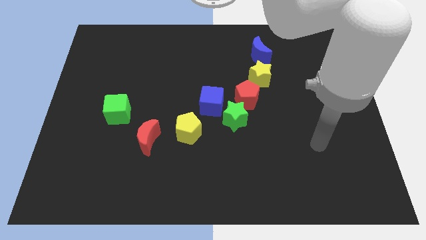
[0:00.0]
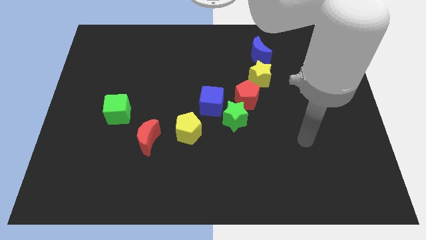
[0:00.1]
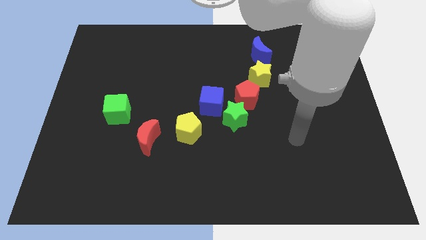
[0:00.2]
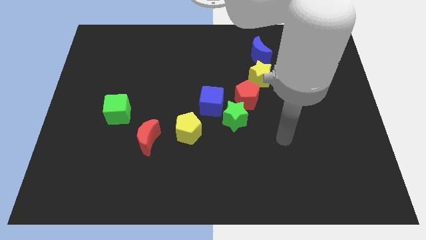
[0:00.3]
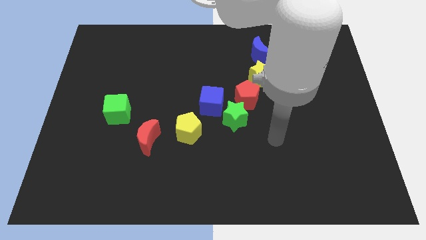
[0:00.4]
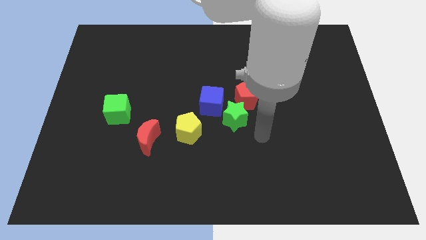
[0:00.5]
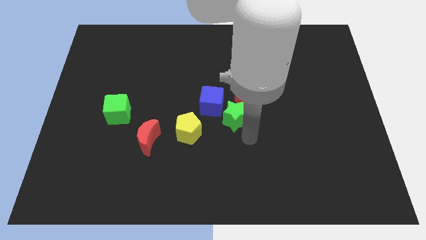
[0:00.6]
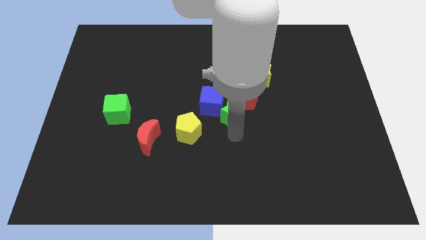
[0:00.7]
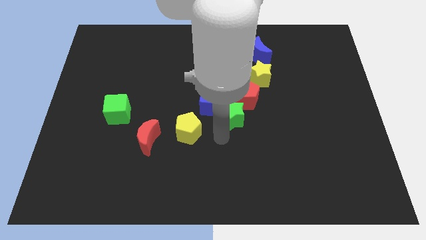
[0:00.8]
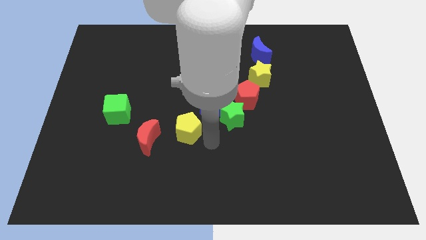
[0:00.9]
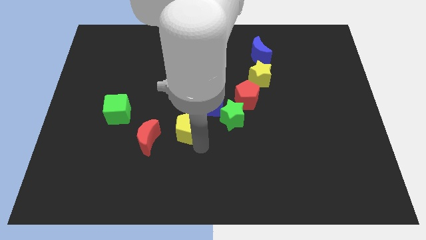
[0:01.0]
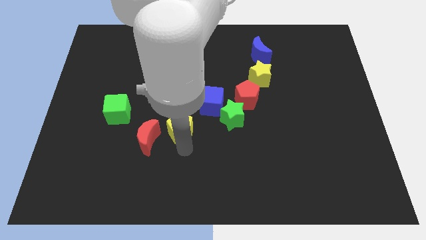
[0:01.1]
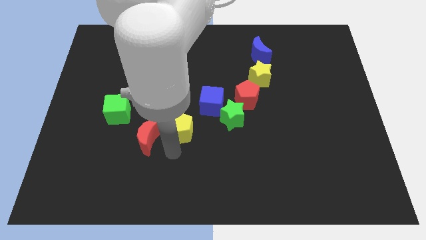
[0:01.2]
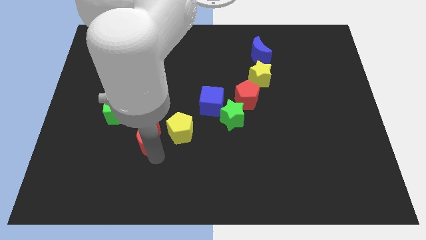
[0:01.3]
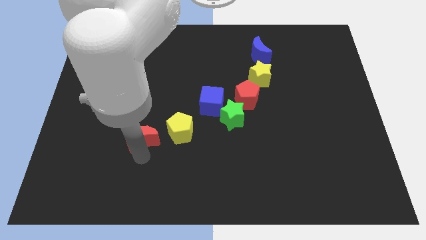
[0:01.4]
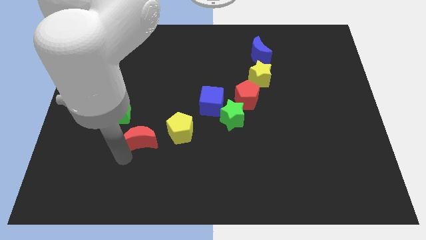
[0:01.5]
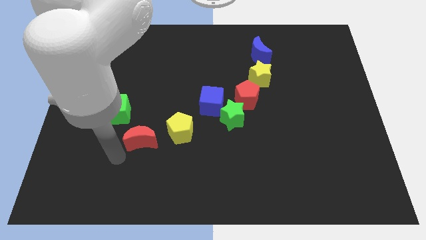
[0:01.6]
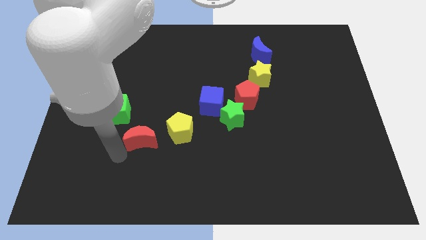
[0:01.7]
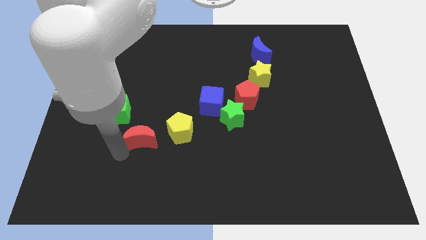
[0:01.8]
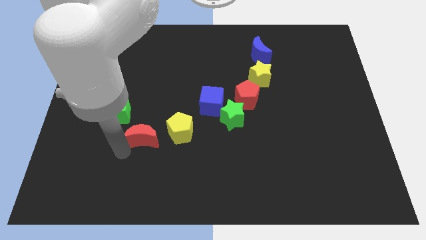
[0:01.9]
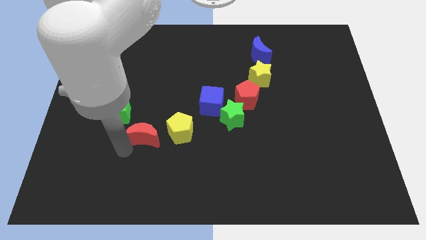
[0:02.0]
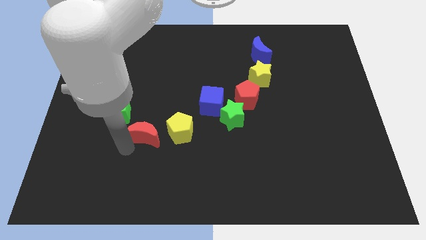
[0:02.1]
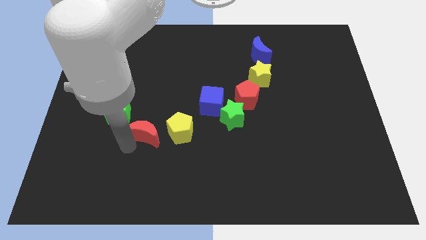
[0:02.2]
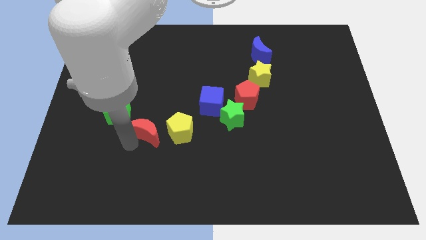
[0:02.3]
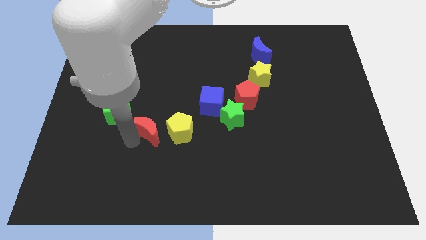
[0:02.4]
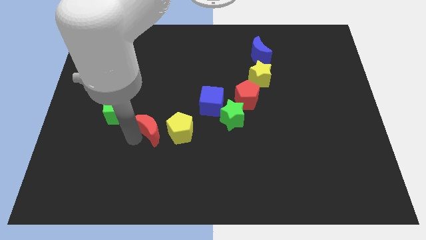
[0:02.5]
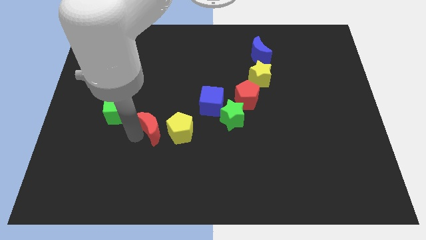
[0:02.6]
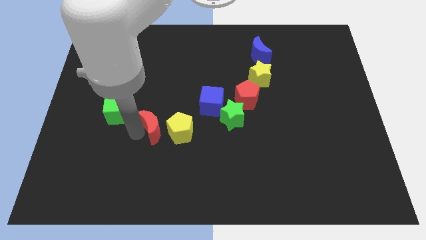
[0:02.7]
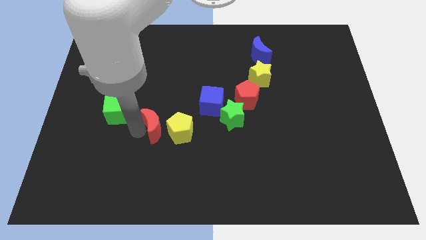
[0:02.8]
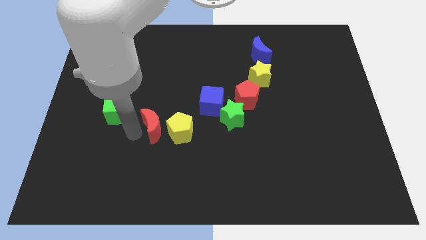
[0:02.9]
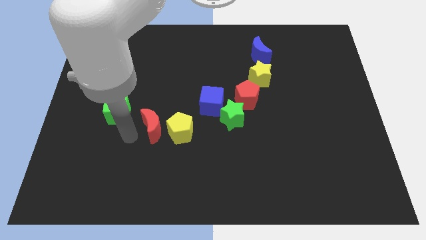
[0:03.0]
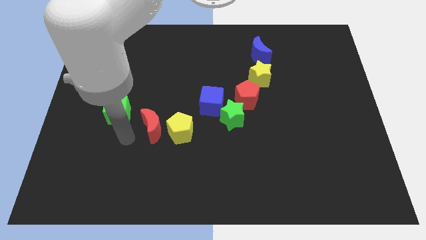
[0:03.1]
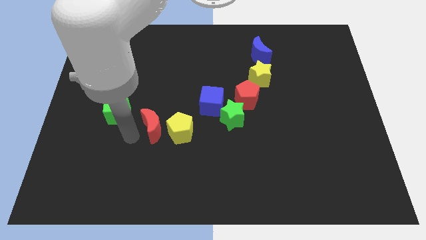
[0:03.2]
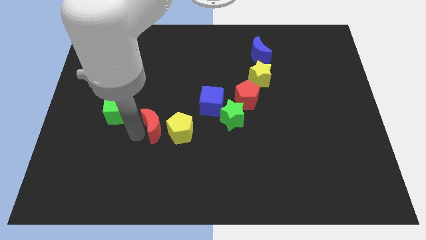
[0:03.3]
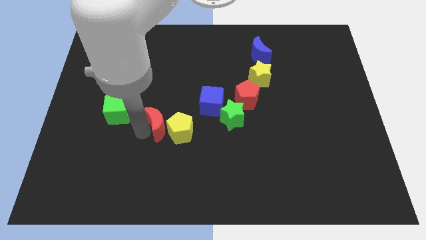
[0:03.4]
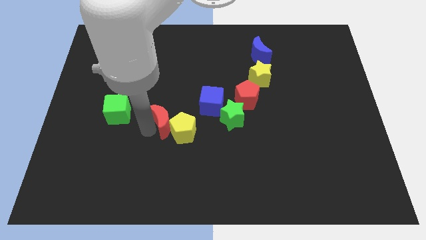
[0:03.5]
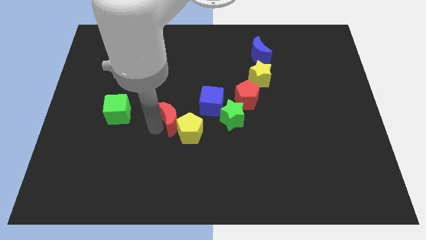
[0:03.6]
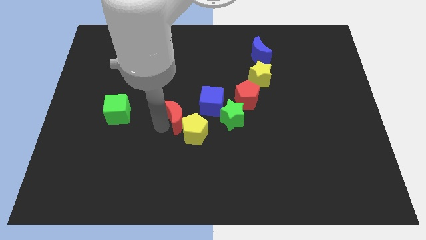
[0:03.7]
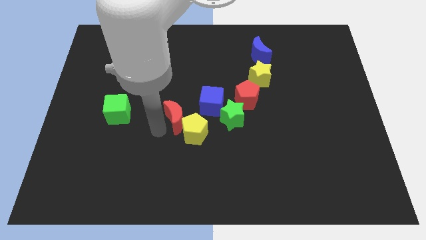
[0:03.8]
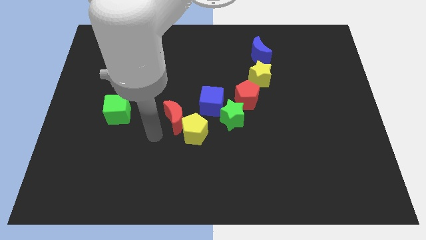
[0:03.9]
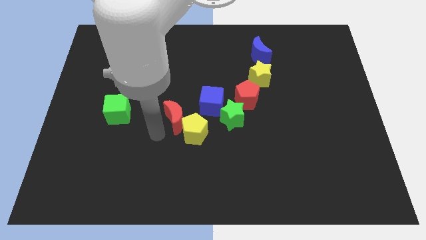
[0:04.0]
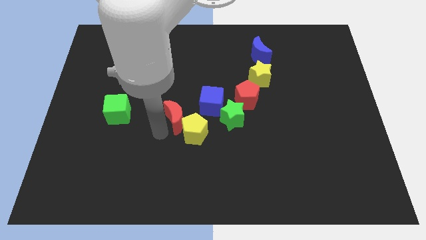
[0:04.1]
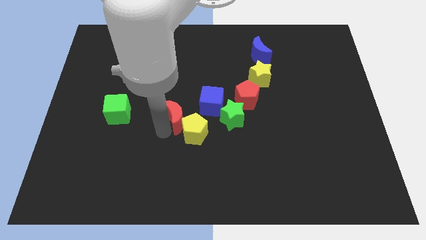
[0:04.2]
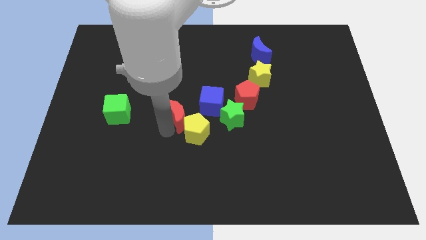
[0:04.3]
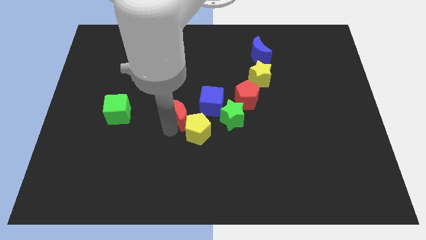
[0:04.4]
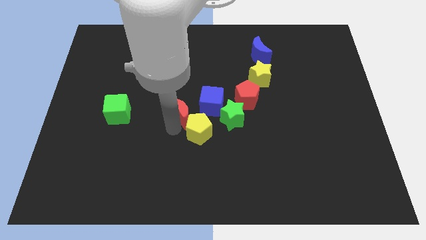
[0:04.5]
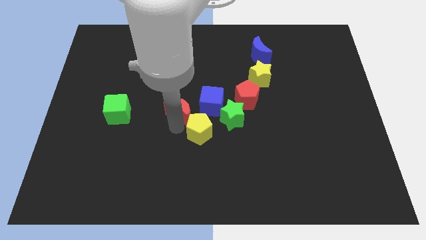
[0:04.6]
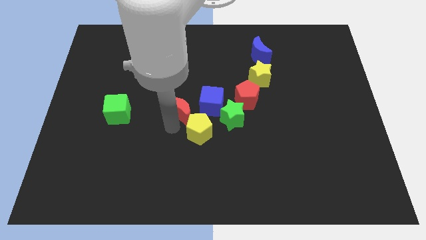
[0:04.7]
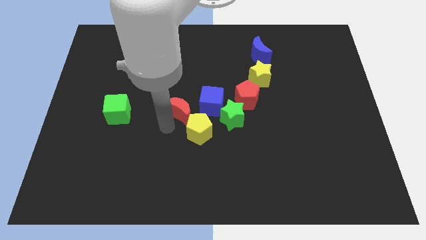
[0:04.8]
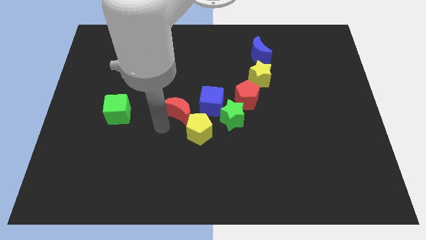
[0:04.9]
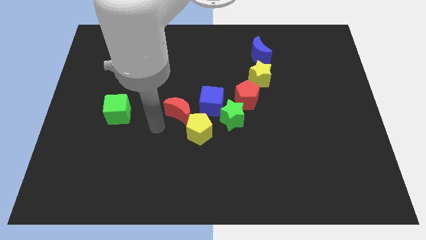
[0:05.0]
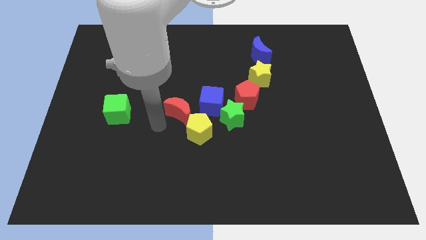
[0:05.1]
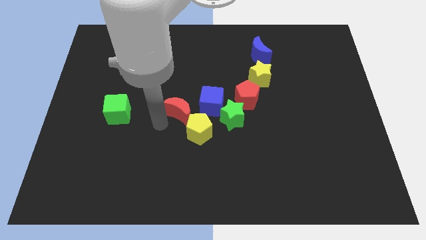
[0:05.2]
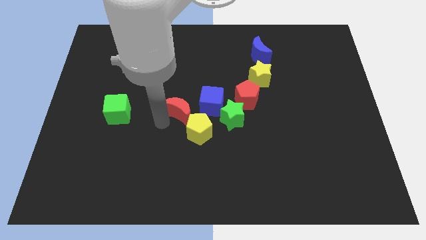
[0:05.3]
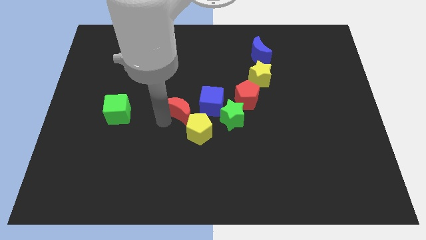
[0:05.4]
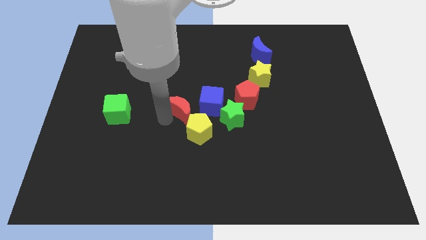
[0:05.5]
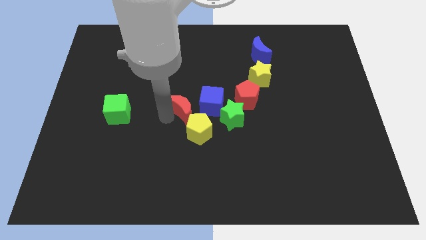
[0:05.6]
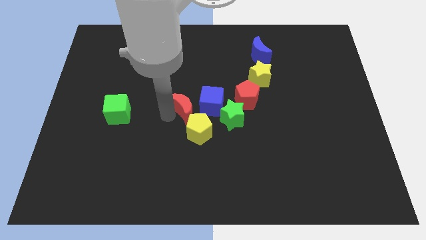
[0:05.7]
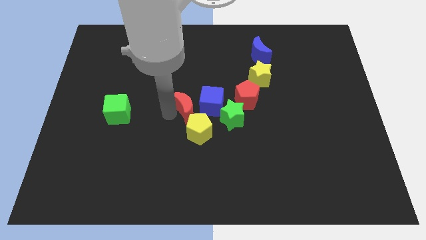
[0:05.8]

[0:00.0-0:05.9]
slide the red moon close to the blue cube

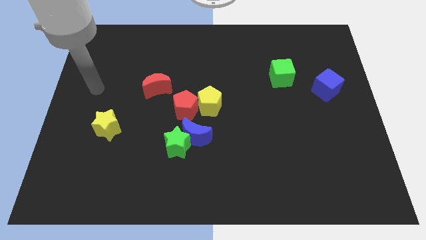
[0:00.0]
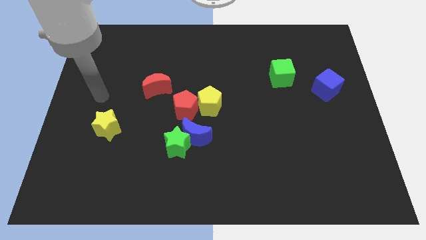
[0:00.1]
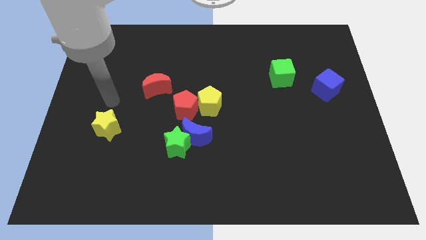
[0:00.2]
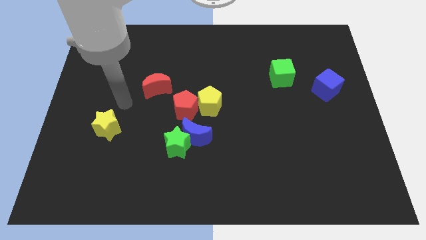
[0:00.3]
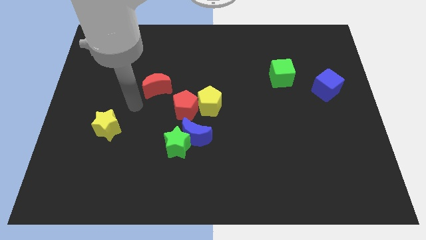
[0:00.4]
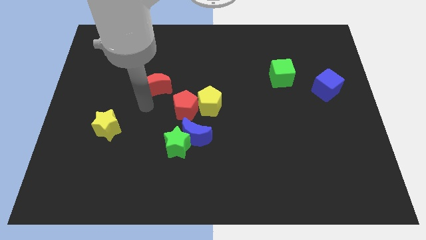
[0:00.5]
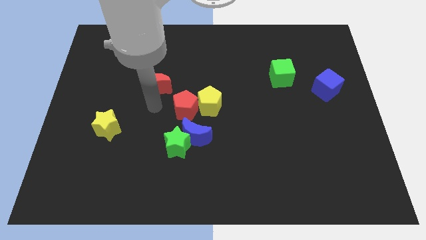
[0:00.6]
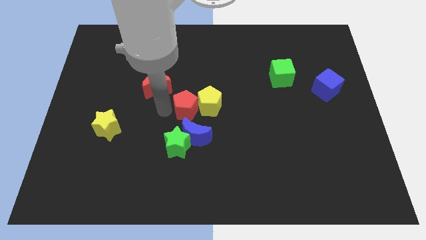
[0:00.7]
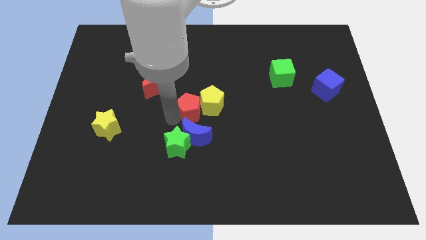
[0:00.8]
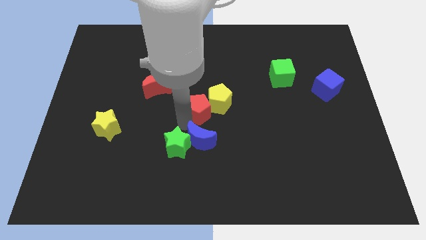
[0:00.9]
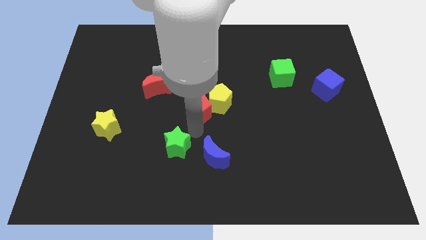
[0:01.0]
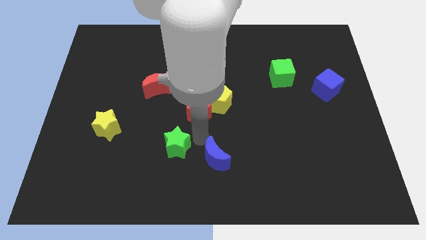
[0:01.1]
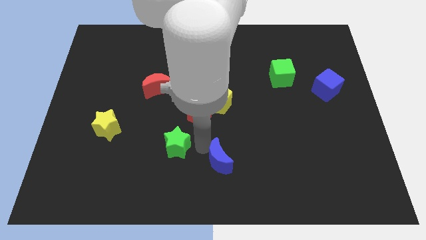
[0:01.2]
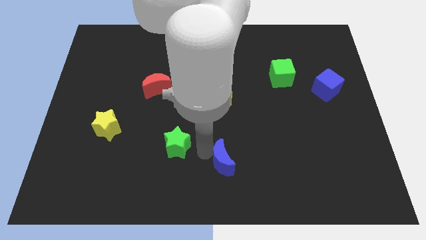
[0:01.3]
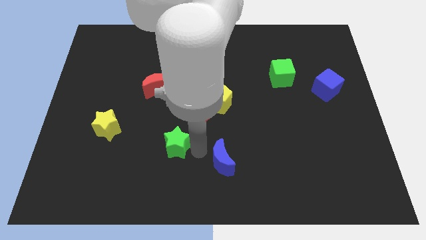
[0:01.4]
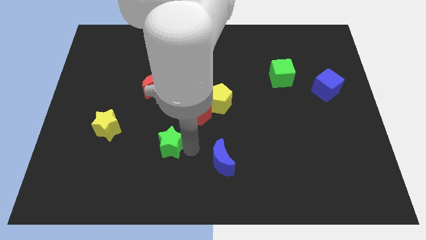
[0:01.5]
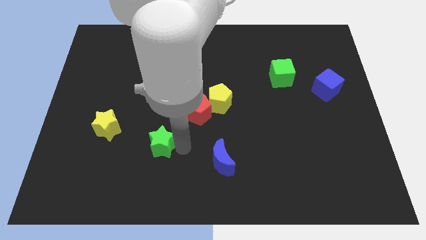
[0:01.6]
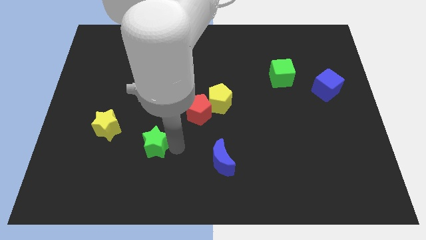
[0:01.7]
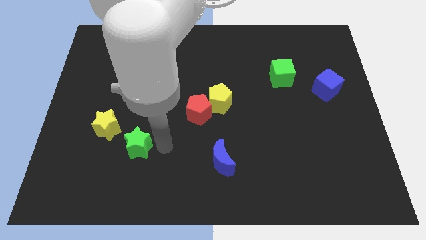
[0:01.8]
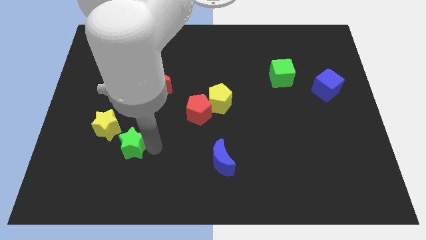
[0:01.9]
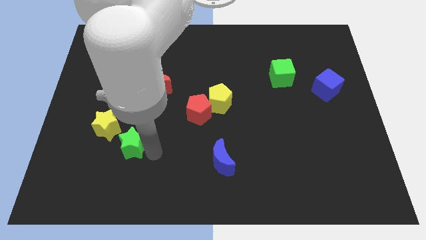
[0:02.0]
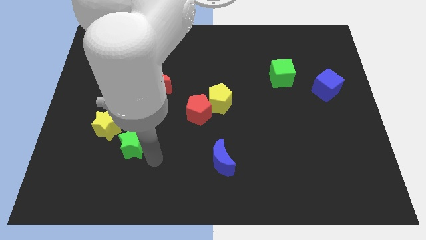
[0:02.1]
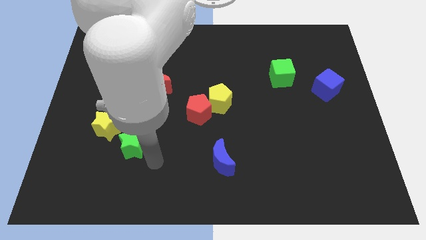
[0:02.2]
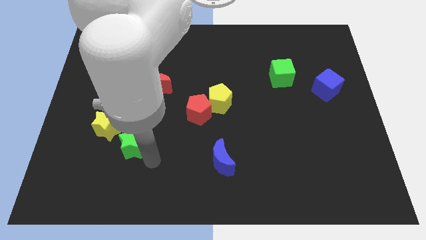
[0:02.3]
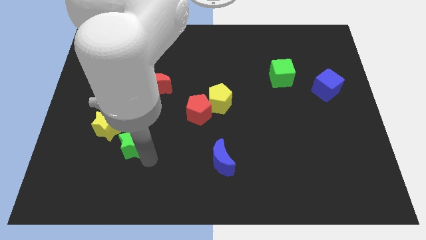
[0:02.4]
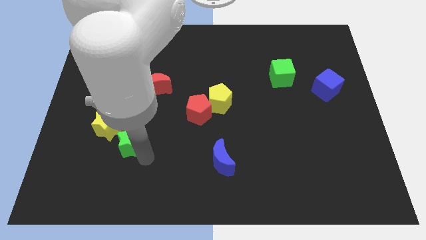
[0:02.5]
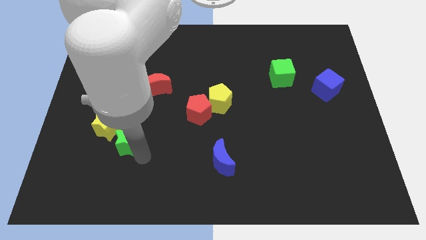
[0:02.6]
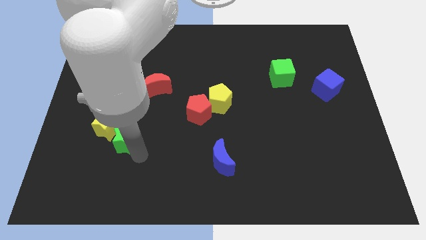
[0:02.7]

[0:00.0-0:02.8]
slide the green star to the yellow star
